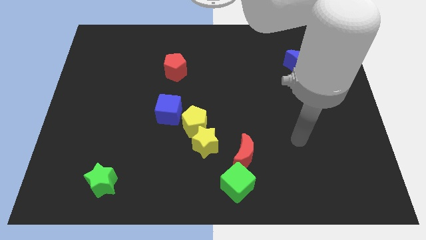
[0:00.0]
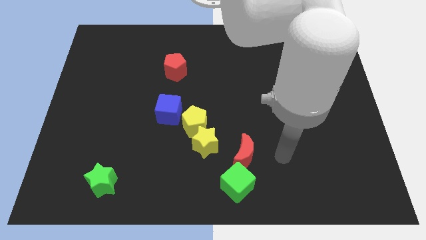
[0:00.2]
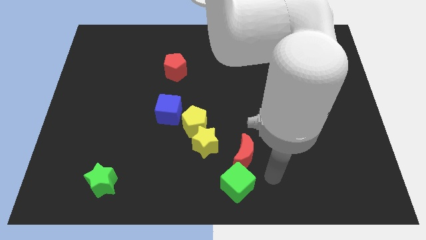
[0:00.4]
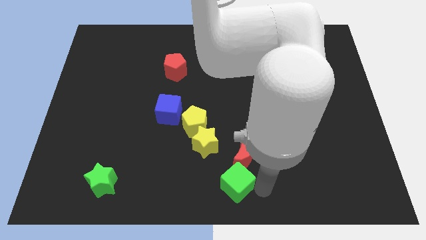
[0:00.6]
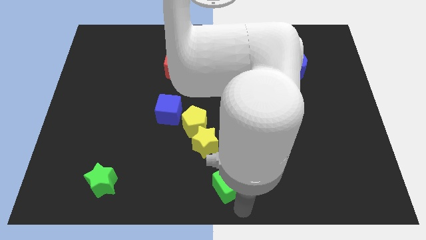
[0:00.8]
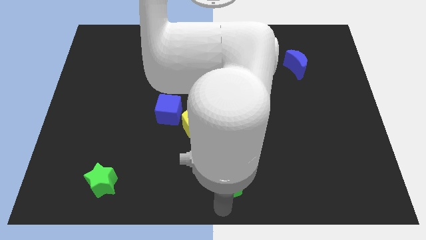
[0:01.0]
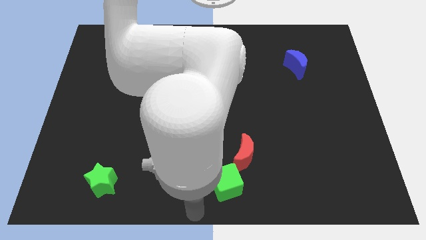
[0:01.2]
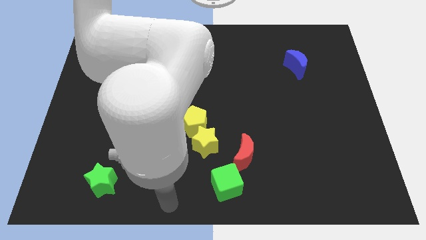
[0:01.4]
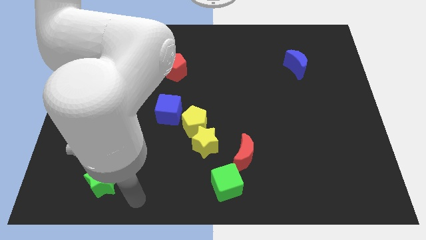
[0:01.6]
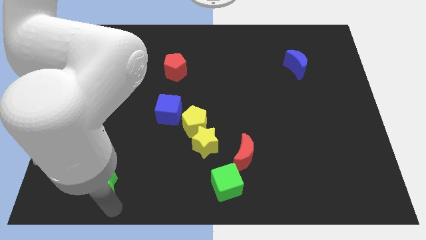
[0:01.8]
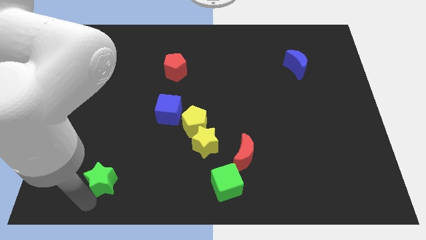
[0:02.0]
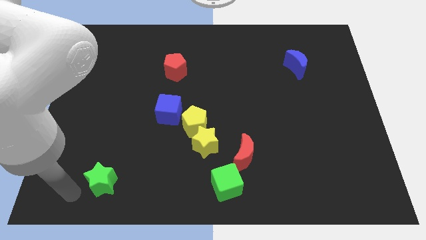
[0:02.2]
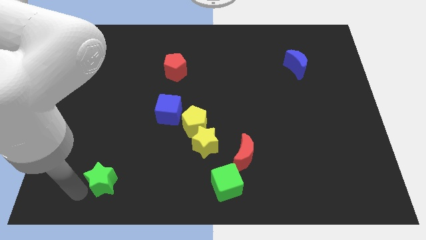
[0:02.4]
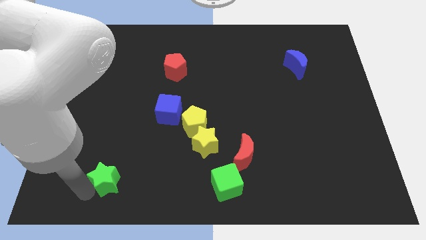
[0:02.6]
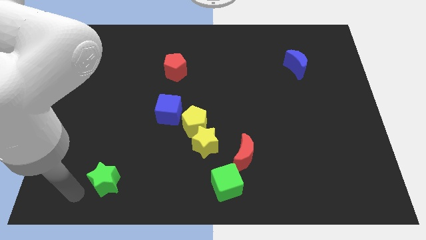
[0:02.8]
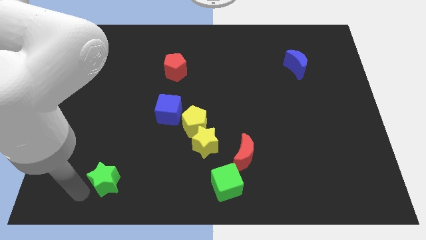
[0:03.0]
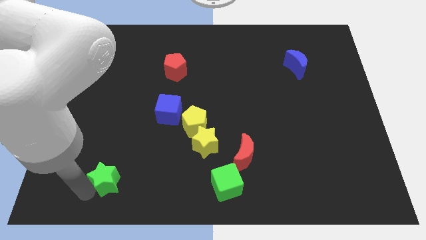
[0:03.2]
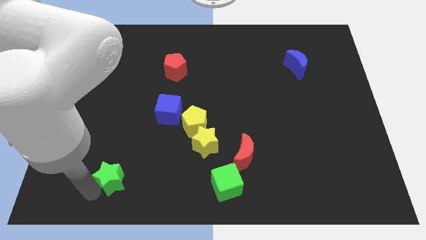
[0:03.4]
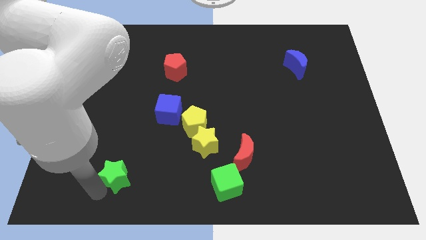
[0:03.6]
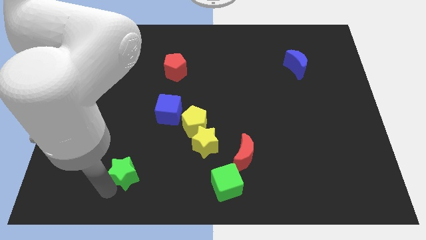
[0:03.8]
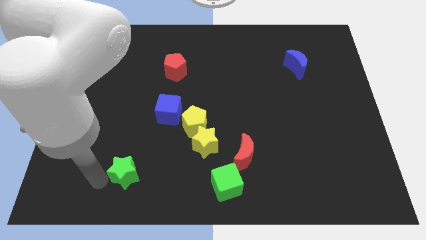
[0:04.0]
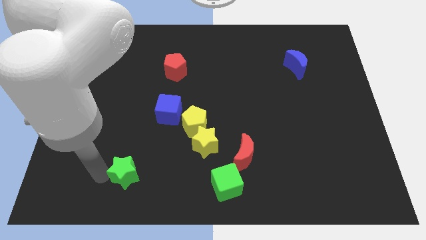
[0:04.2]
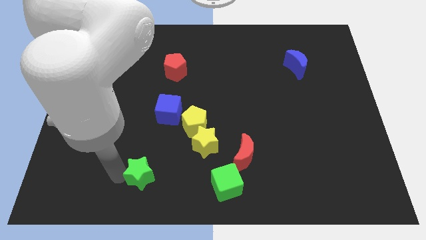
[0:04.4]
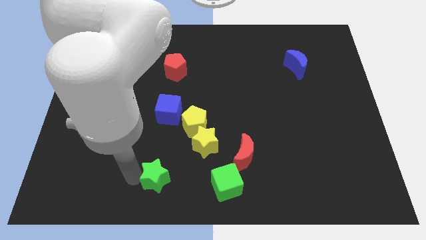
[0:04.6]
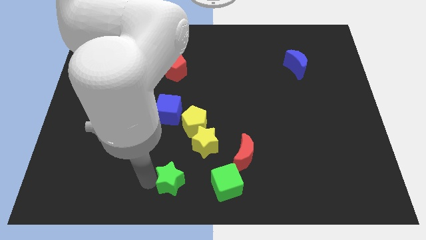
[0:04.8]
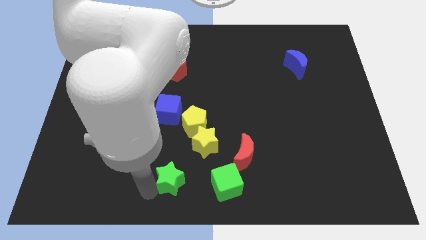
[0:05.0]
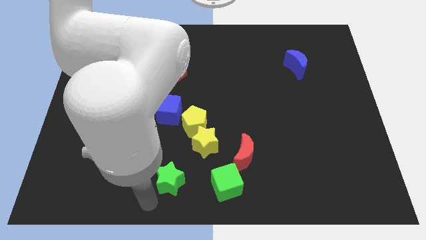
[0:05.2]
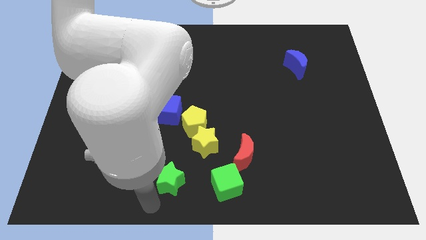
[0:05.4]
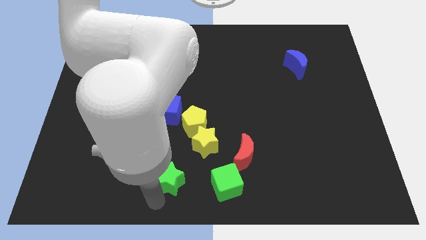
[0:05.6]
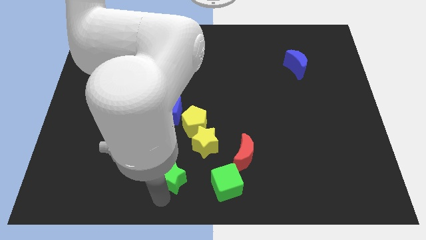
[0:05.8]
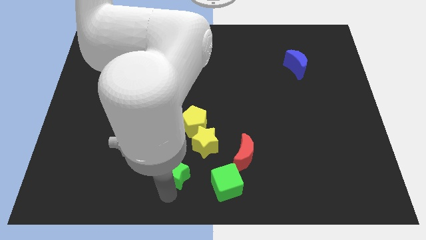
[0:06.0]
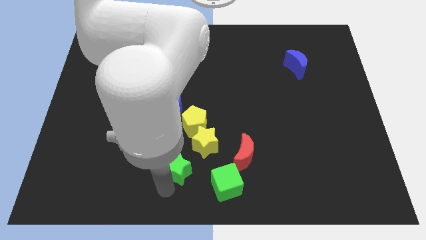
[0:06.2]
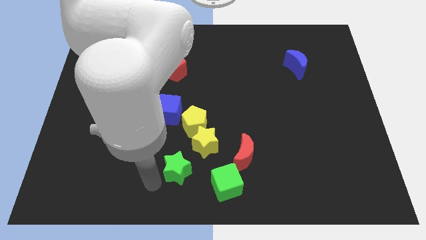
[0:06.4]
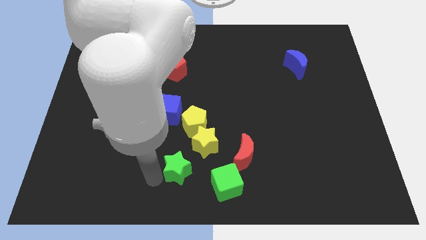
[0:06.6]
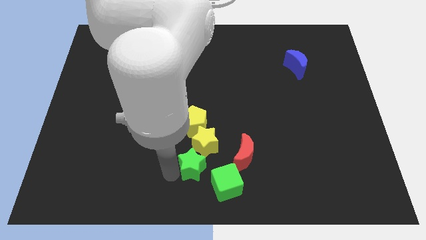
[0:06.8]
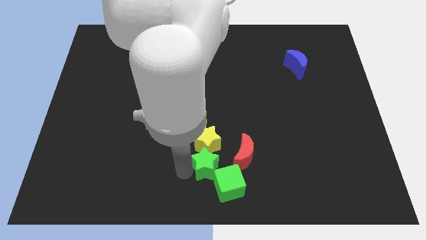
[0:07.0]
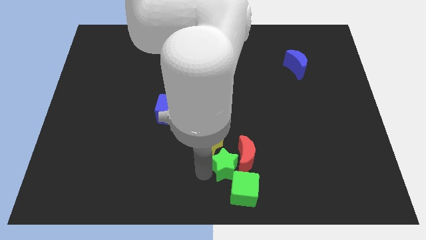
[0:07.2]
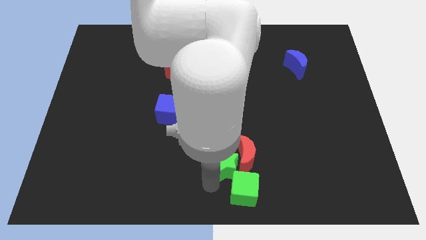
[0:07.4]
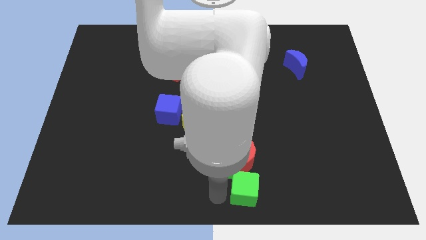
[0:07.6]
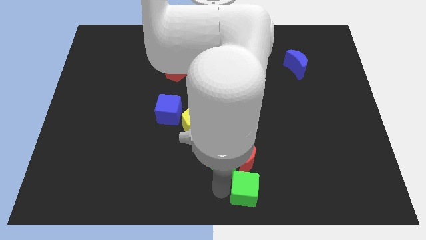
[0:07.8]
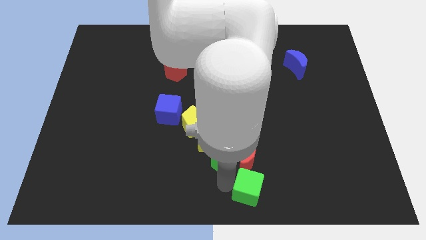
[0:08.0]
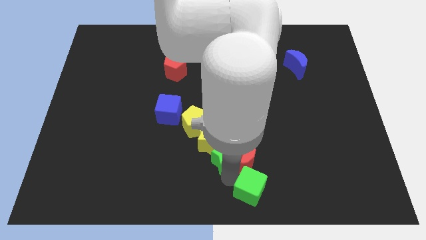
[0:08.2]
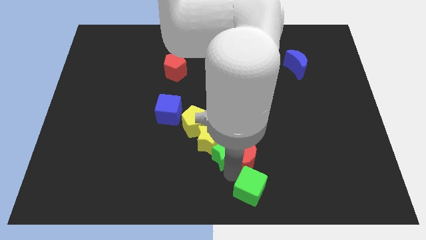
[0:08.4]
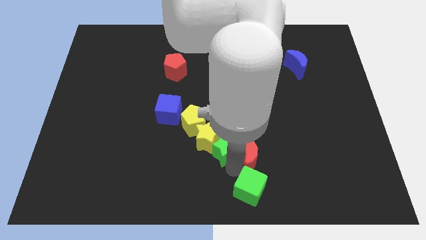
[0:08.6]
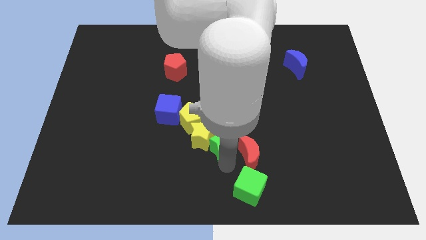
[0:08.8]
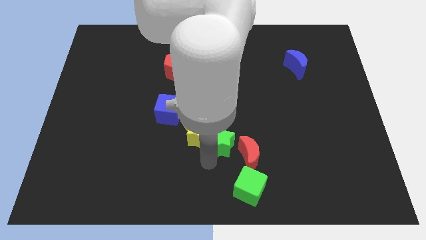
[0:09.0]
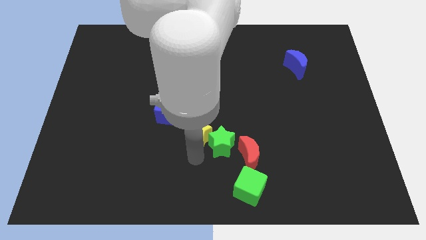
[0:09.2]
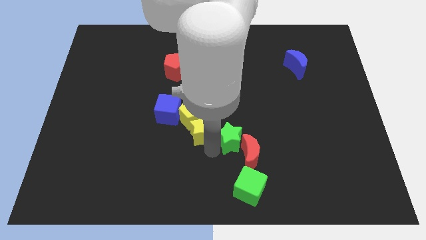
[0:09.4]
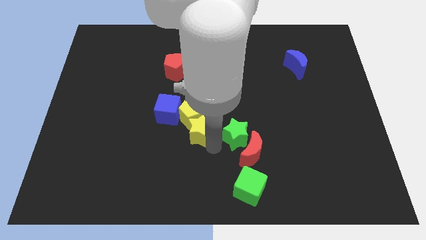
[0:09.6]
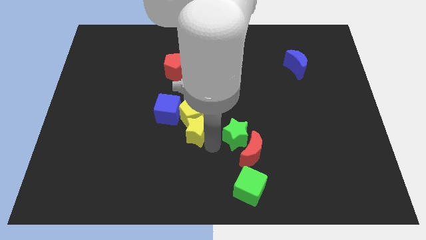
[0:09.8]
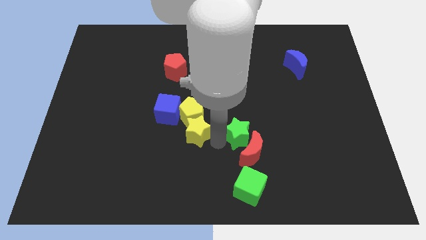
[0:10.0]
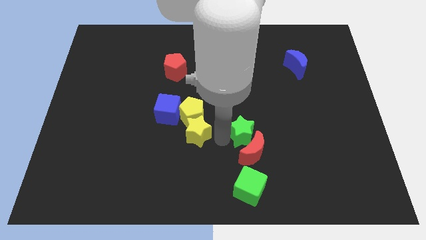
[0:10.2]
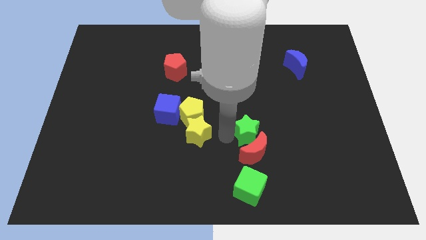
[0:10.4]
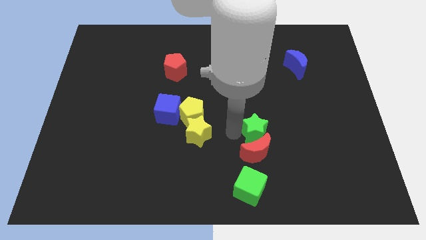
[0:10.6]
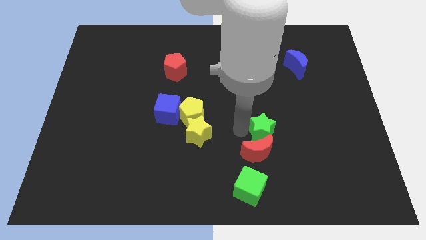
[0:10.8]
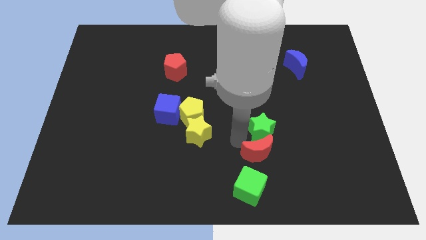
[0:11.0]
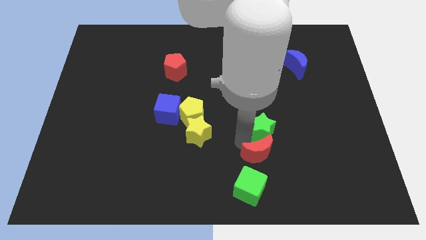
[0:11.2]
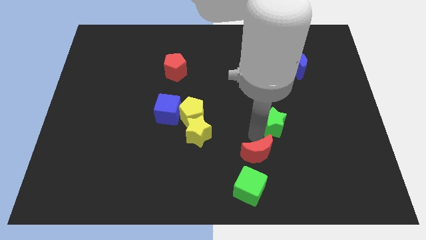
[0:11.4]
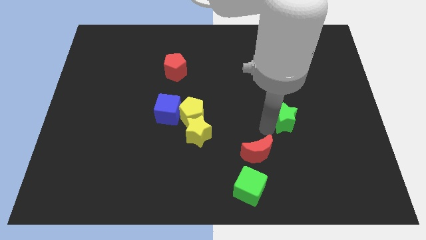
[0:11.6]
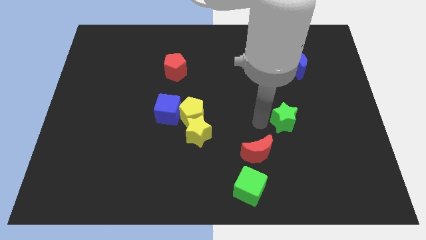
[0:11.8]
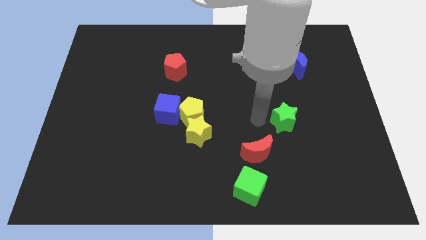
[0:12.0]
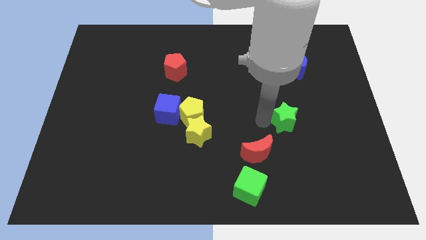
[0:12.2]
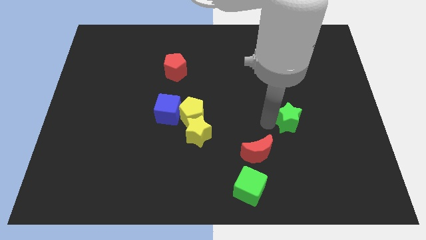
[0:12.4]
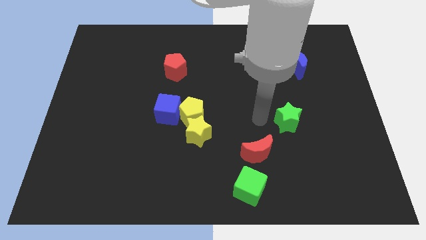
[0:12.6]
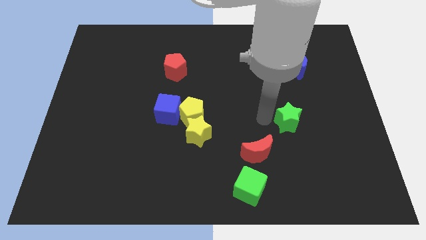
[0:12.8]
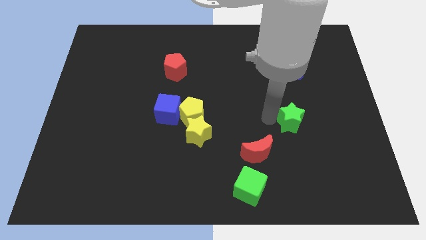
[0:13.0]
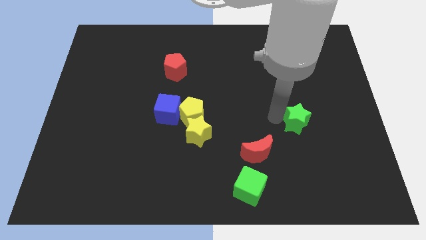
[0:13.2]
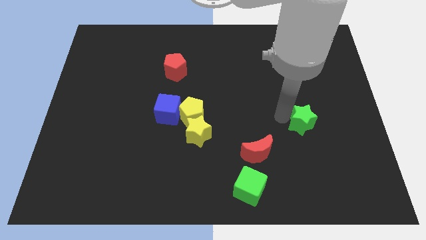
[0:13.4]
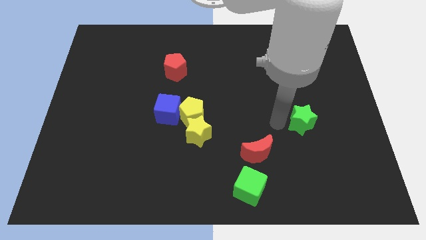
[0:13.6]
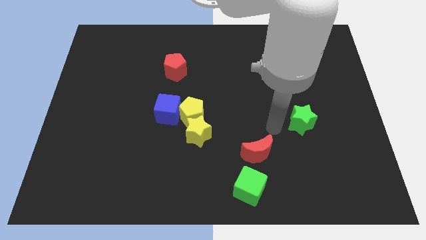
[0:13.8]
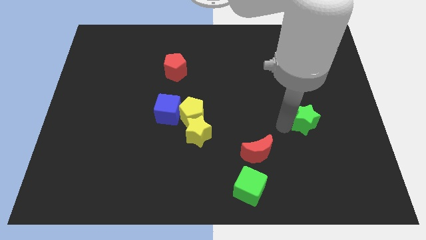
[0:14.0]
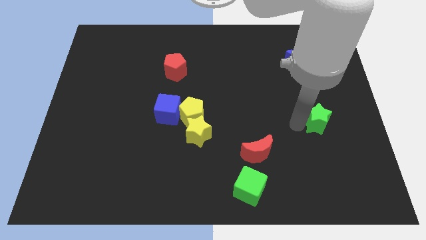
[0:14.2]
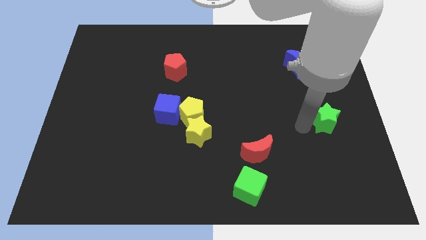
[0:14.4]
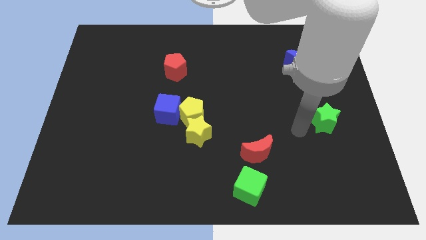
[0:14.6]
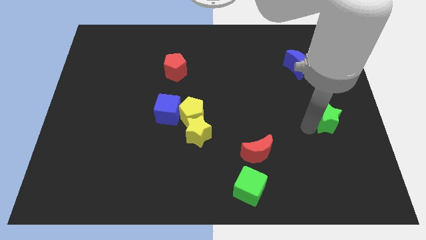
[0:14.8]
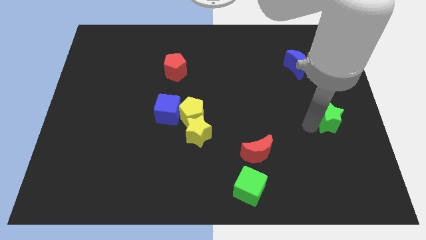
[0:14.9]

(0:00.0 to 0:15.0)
move the green star to the right side of the board
